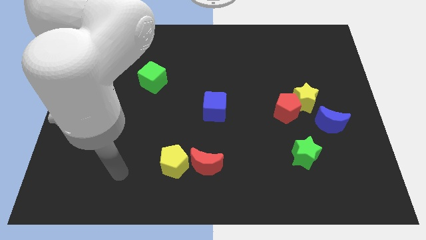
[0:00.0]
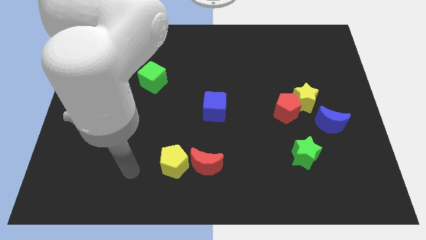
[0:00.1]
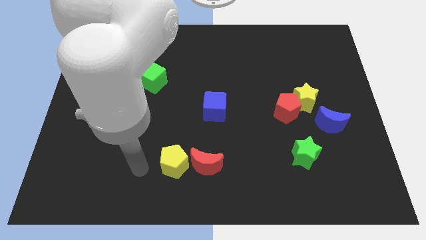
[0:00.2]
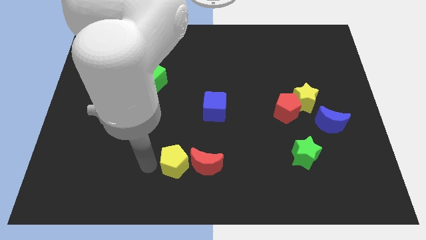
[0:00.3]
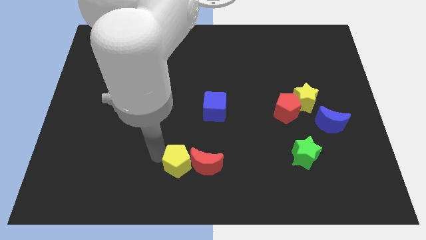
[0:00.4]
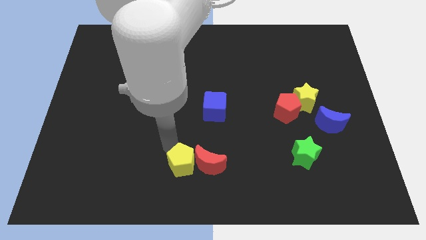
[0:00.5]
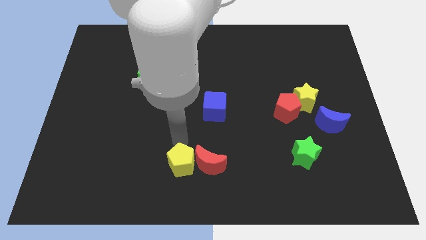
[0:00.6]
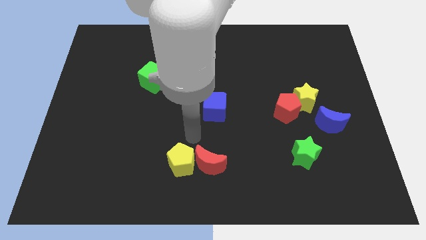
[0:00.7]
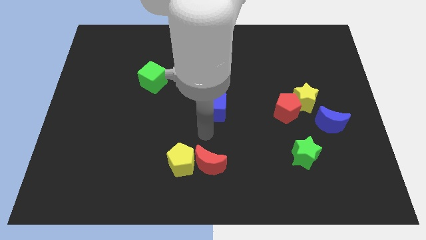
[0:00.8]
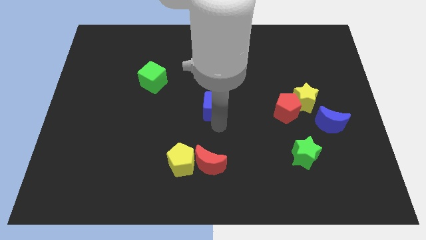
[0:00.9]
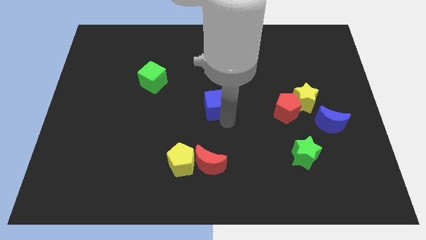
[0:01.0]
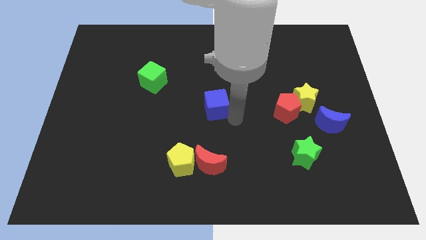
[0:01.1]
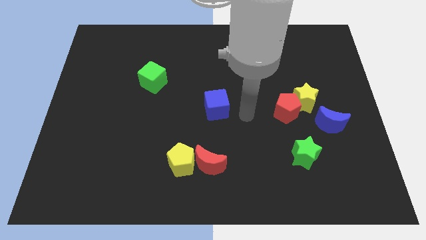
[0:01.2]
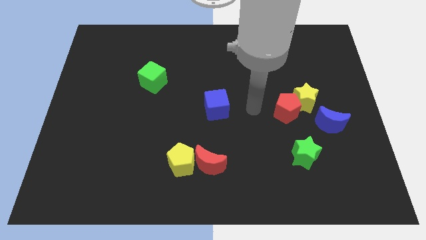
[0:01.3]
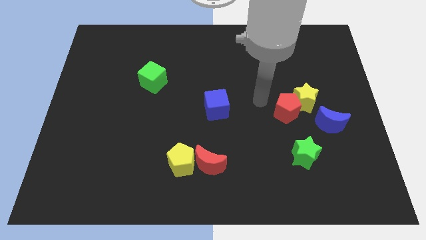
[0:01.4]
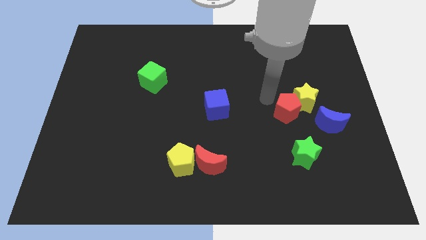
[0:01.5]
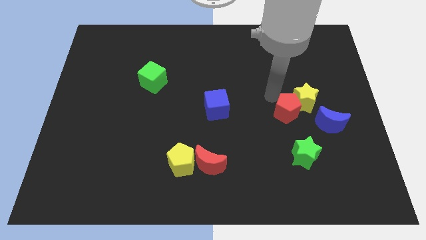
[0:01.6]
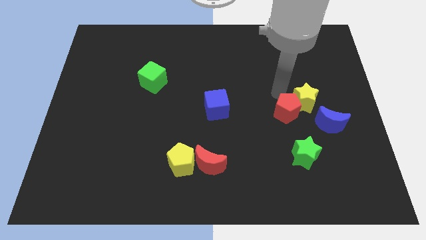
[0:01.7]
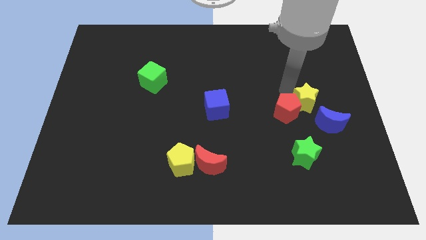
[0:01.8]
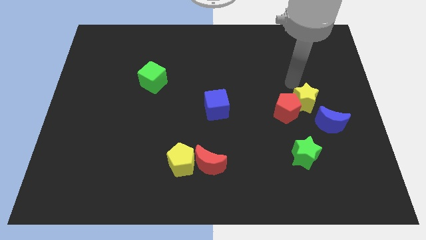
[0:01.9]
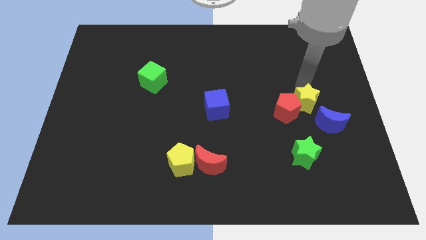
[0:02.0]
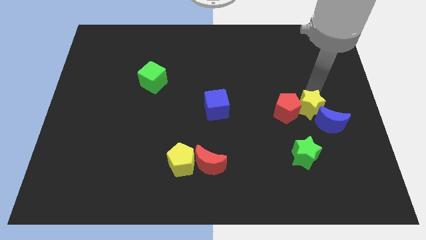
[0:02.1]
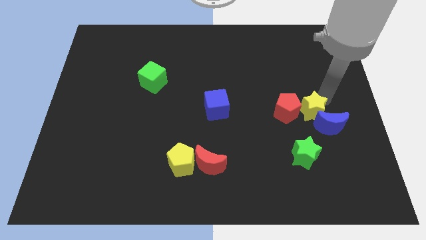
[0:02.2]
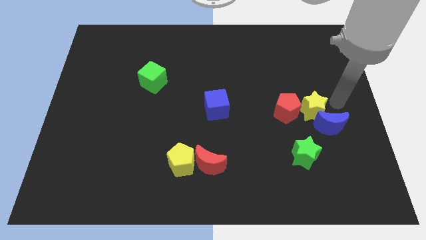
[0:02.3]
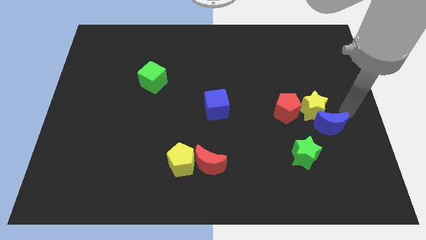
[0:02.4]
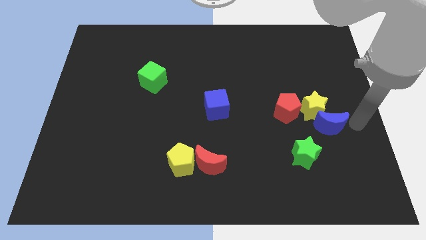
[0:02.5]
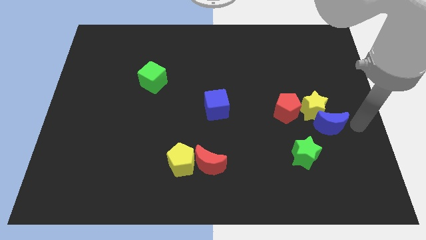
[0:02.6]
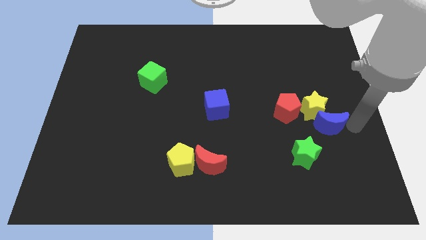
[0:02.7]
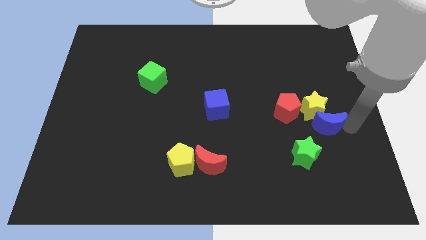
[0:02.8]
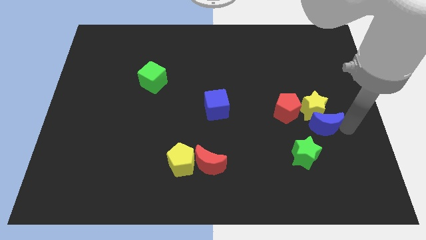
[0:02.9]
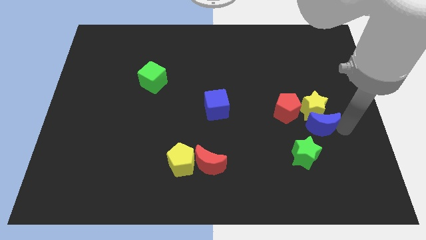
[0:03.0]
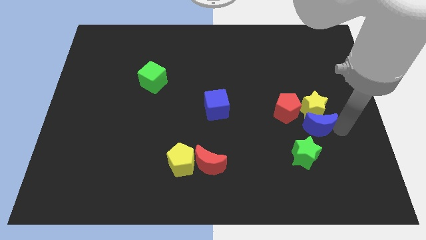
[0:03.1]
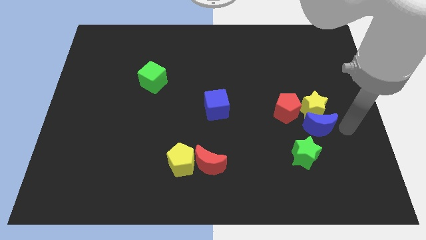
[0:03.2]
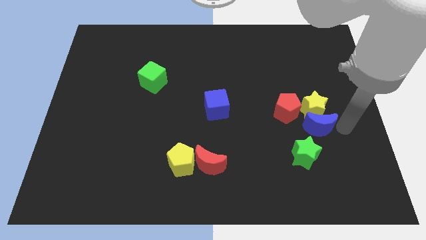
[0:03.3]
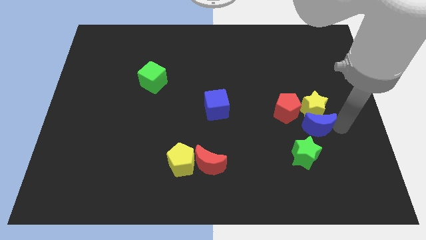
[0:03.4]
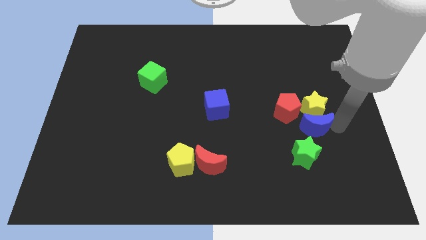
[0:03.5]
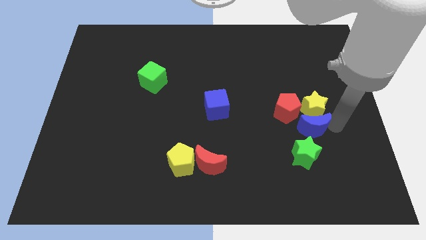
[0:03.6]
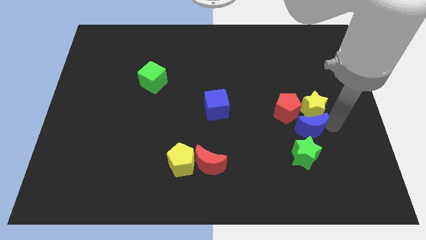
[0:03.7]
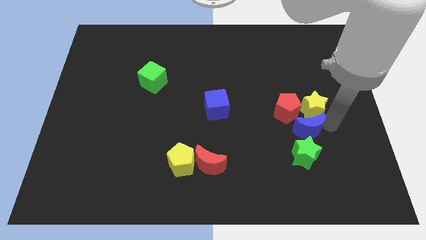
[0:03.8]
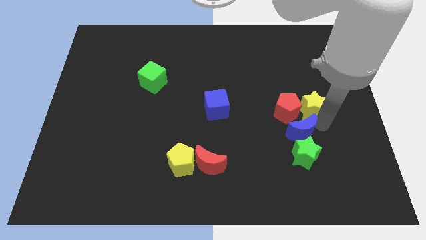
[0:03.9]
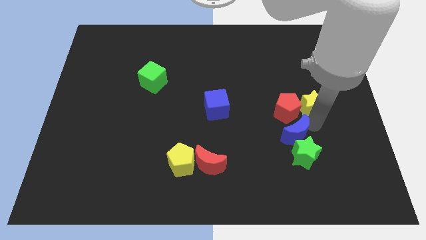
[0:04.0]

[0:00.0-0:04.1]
slide the blue moon to the left slightly

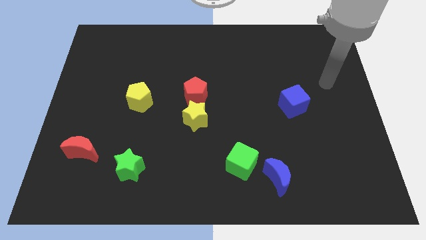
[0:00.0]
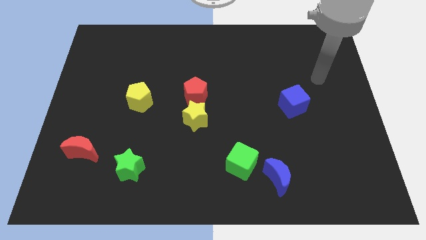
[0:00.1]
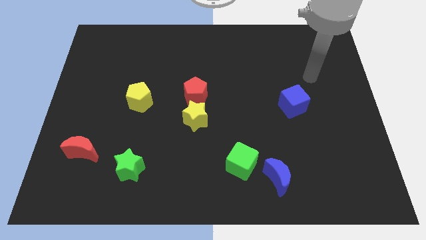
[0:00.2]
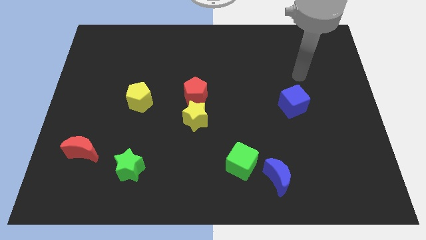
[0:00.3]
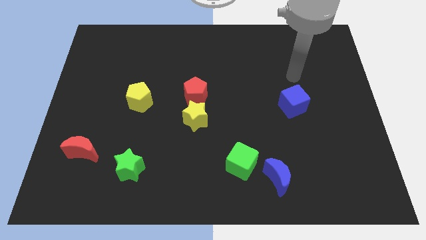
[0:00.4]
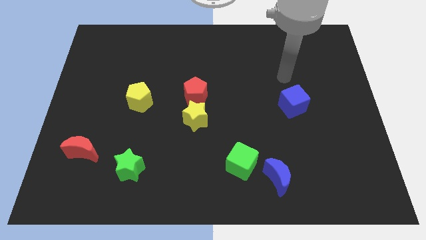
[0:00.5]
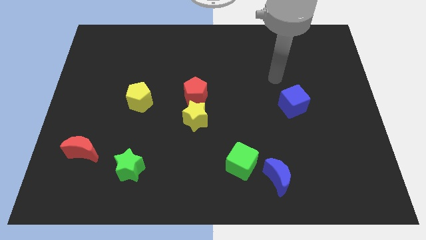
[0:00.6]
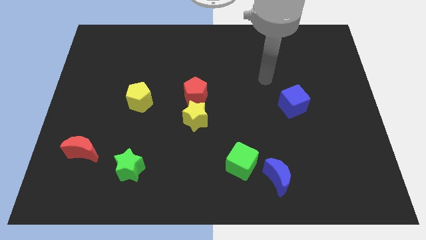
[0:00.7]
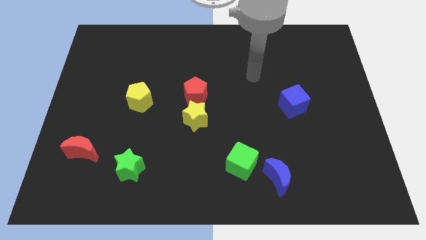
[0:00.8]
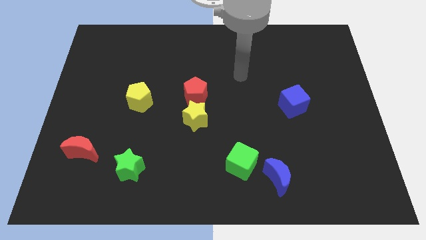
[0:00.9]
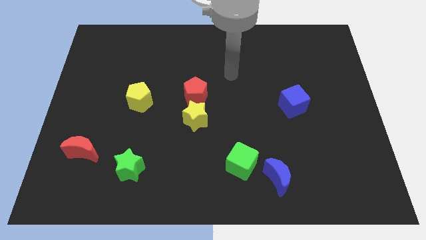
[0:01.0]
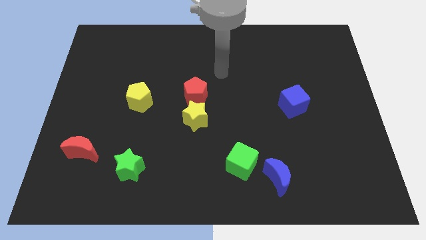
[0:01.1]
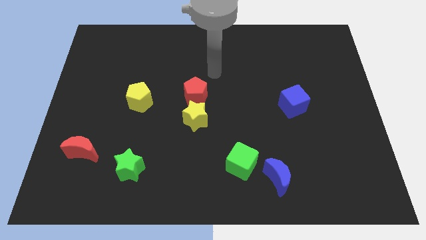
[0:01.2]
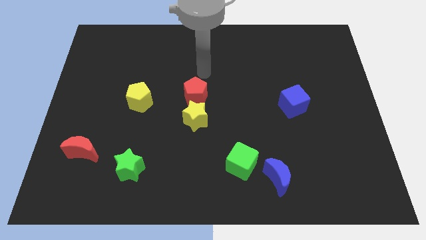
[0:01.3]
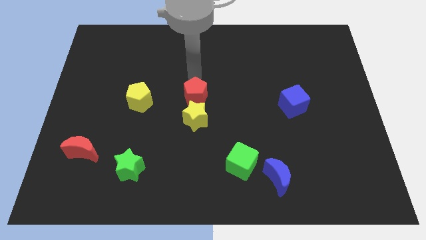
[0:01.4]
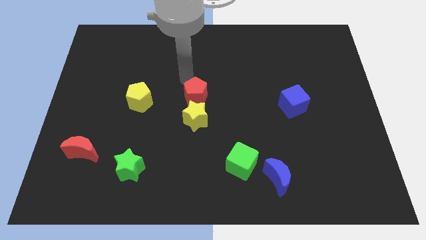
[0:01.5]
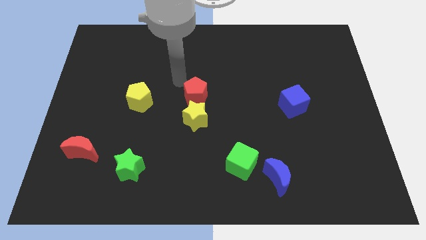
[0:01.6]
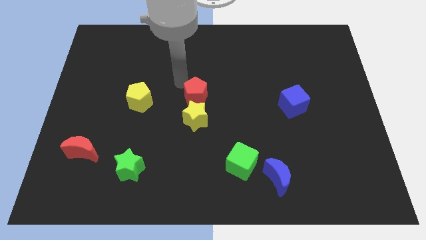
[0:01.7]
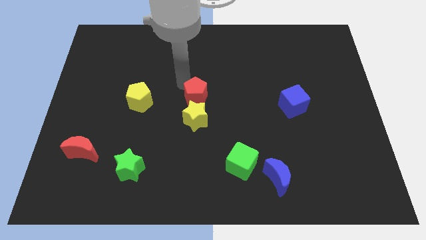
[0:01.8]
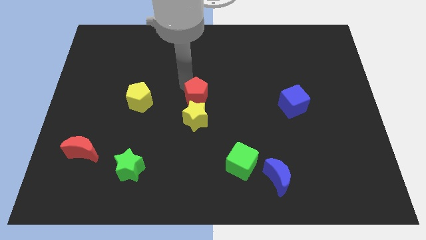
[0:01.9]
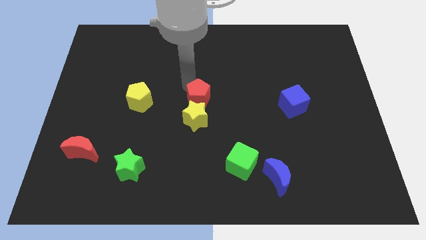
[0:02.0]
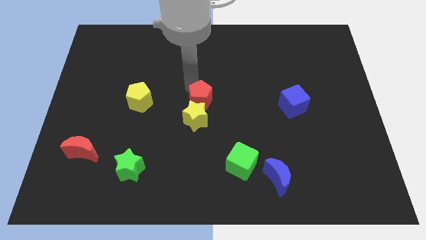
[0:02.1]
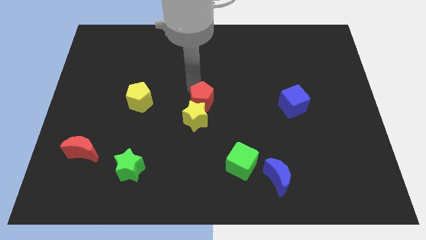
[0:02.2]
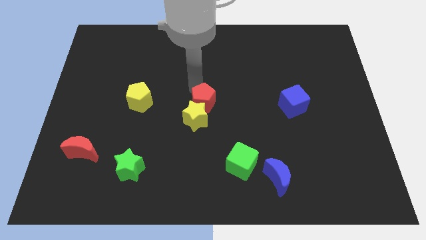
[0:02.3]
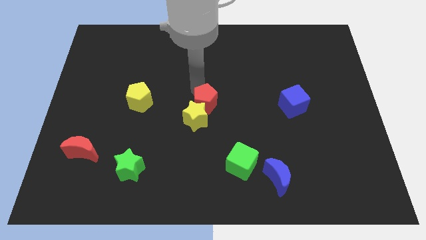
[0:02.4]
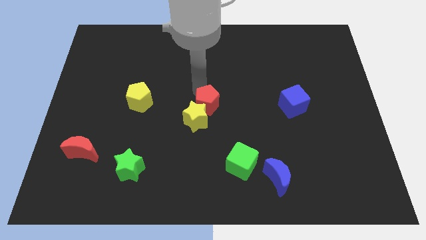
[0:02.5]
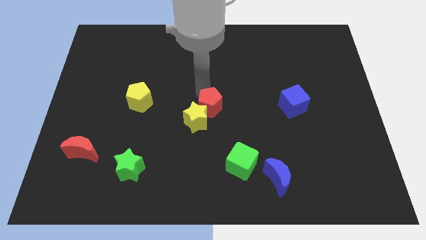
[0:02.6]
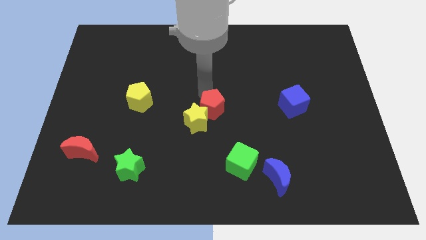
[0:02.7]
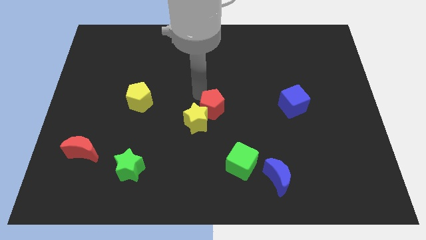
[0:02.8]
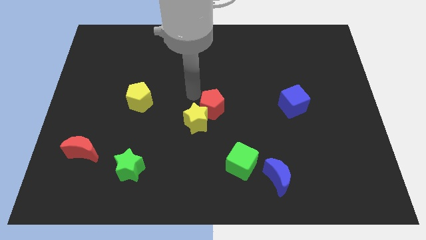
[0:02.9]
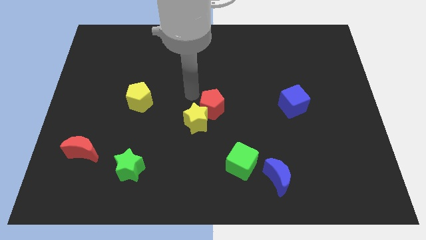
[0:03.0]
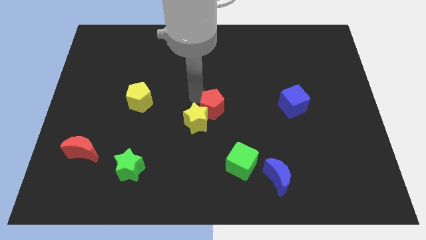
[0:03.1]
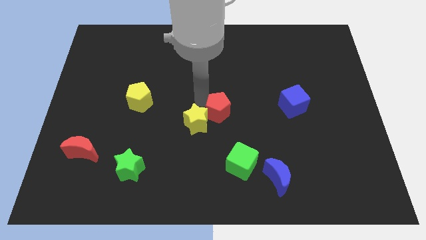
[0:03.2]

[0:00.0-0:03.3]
slightly push the red pentagon diagonally down and right

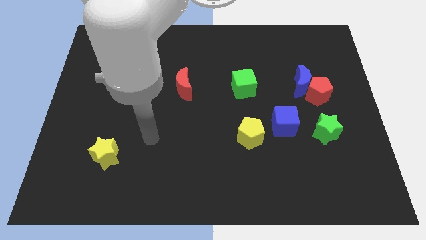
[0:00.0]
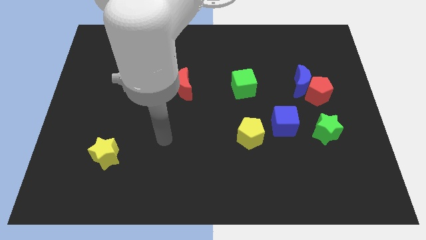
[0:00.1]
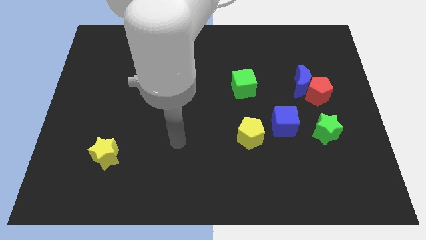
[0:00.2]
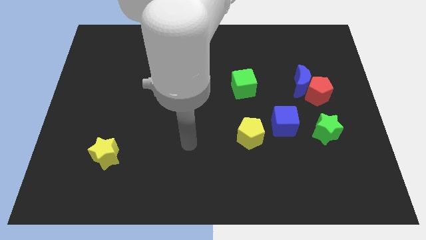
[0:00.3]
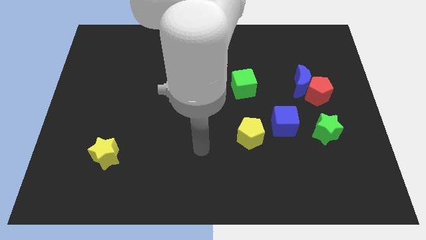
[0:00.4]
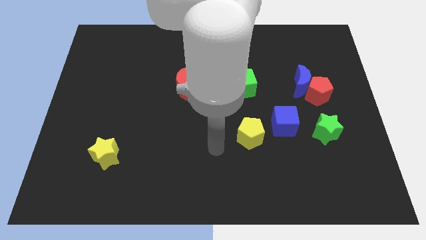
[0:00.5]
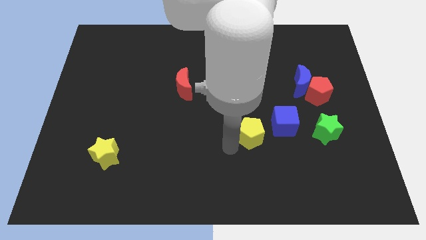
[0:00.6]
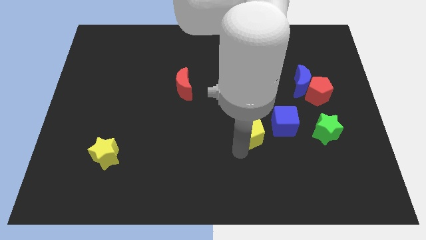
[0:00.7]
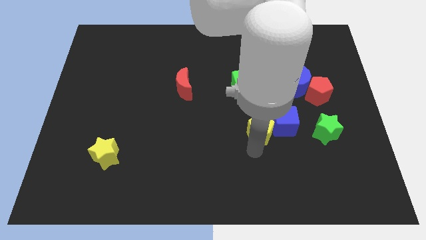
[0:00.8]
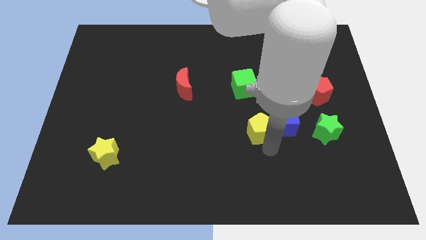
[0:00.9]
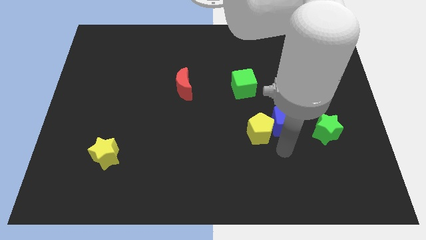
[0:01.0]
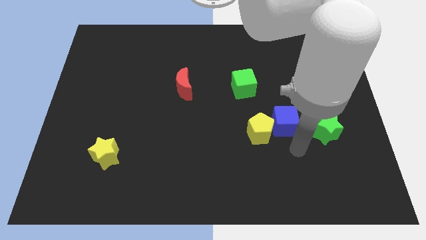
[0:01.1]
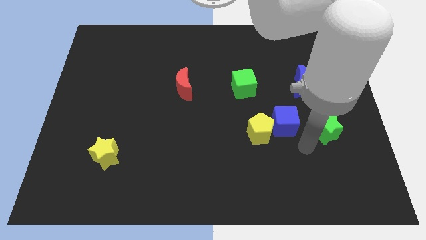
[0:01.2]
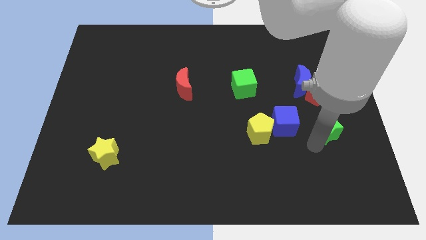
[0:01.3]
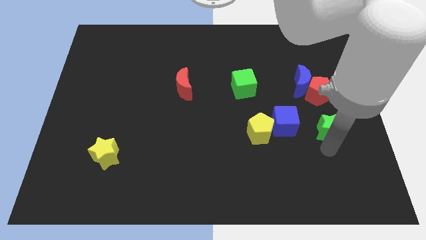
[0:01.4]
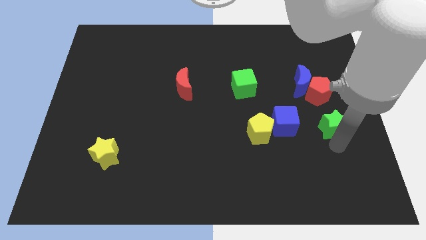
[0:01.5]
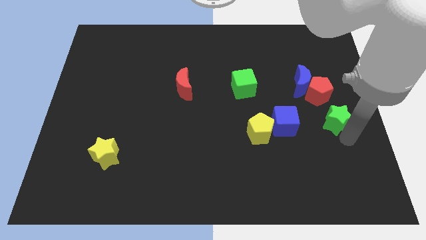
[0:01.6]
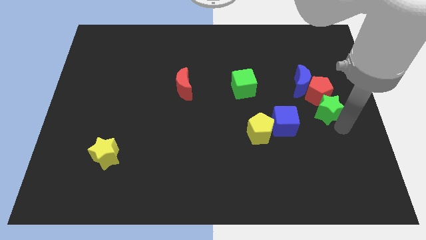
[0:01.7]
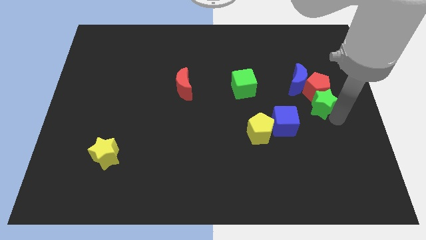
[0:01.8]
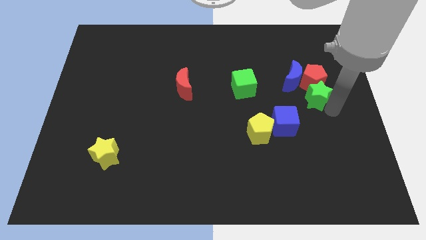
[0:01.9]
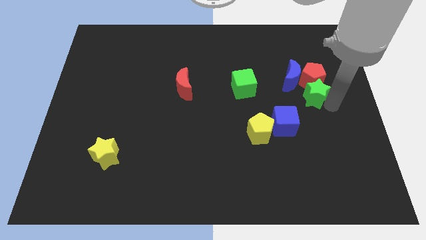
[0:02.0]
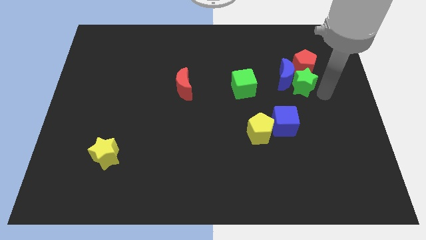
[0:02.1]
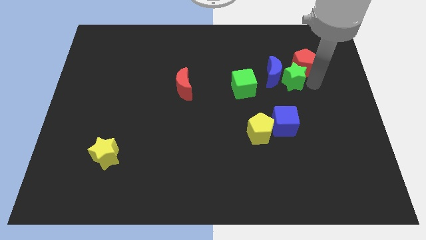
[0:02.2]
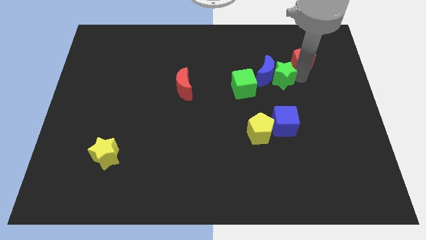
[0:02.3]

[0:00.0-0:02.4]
push the blue moon left a bit
